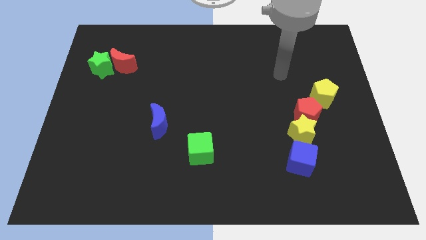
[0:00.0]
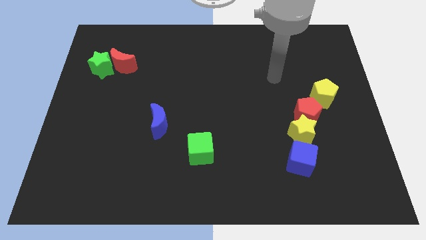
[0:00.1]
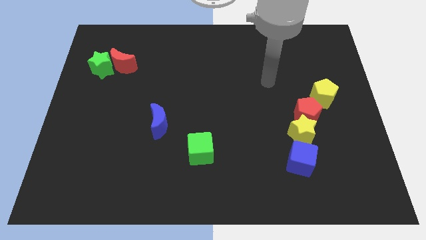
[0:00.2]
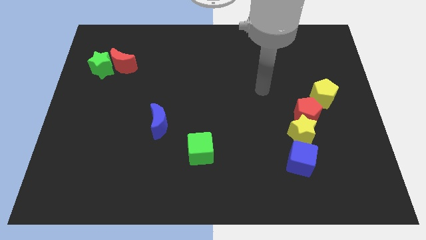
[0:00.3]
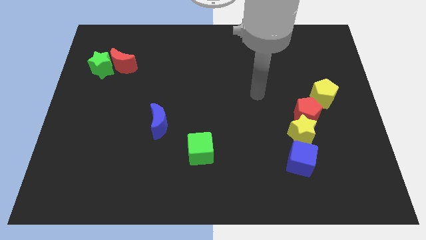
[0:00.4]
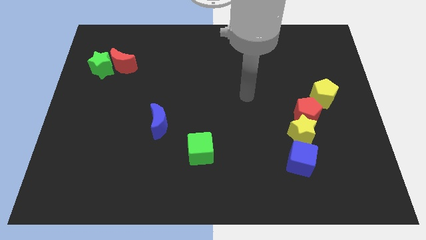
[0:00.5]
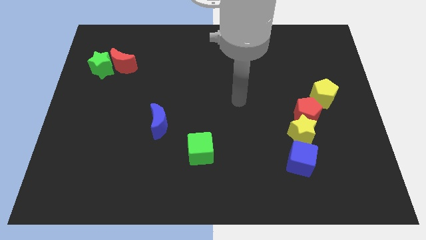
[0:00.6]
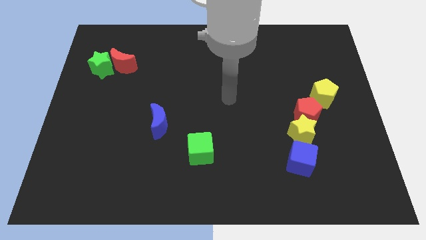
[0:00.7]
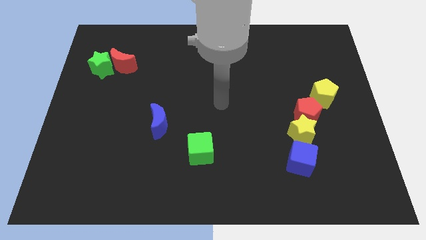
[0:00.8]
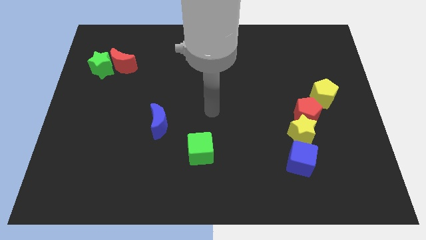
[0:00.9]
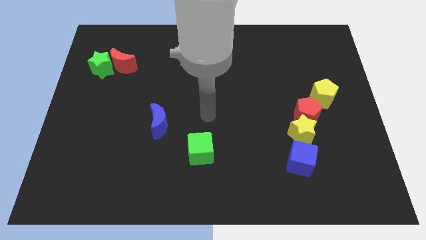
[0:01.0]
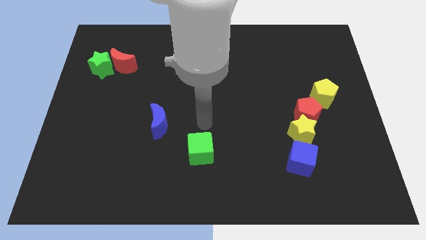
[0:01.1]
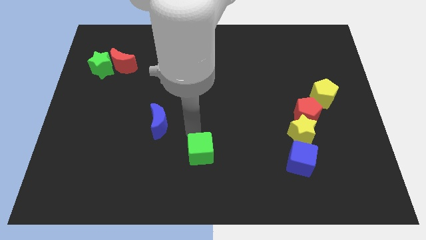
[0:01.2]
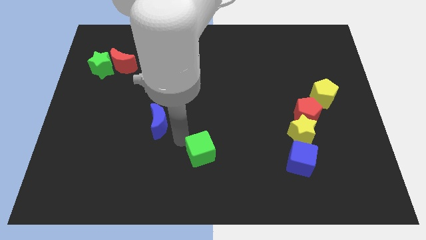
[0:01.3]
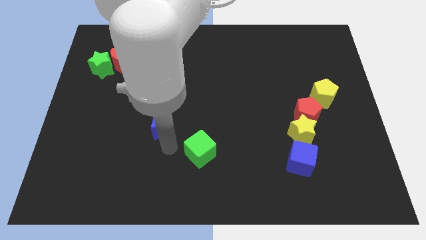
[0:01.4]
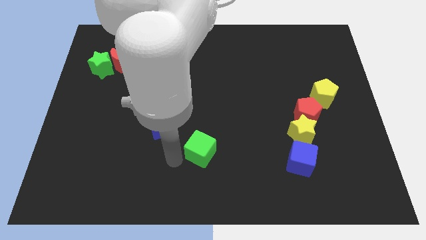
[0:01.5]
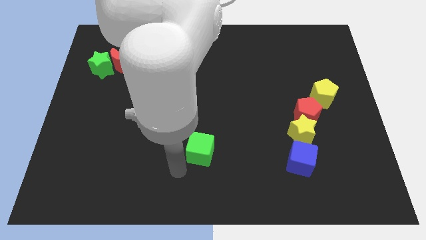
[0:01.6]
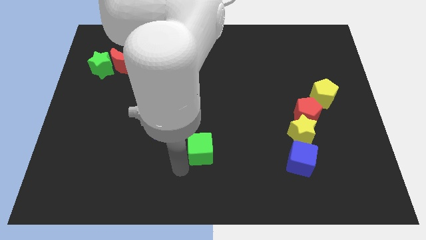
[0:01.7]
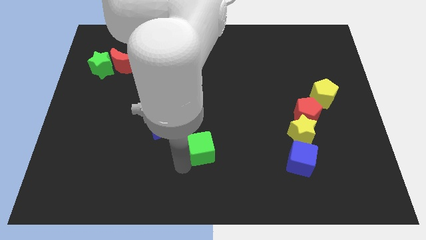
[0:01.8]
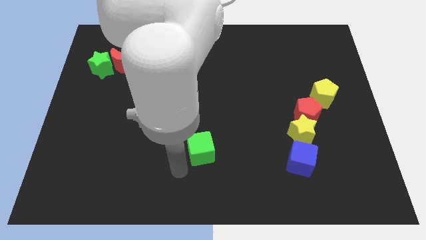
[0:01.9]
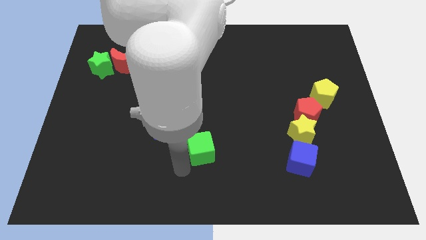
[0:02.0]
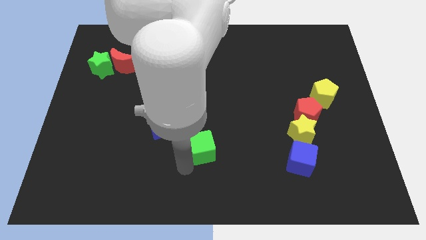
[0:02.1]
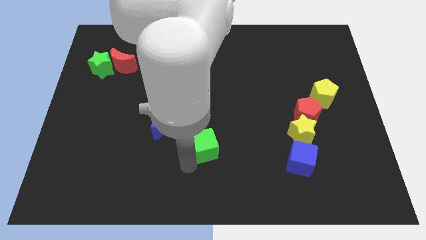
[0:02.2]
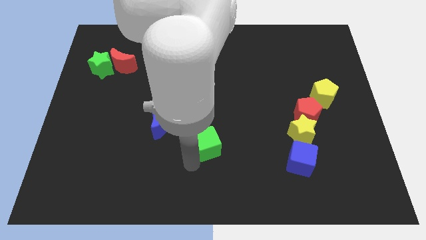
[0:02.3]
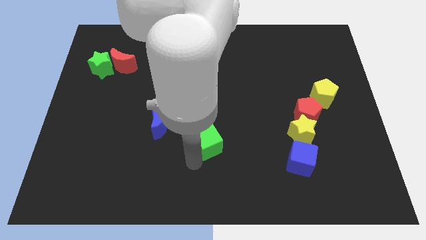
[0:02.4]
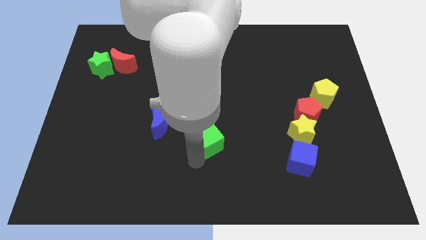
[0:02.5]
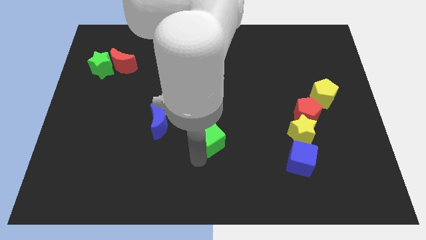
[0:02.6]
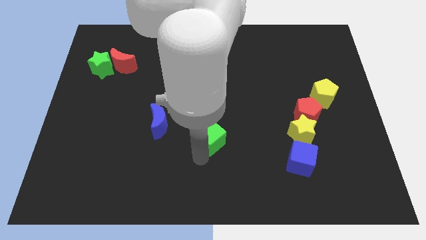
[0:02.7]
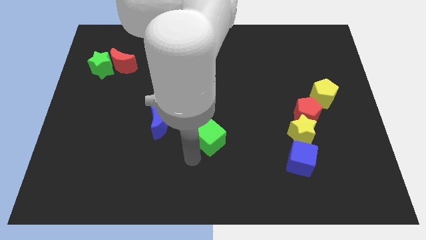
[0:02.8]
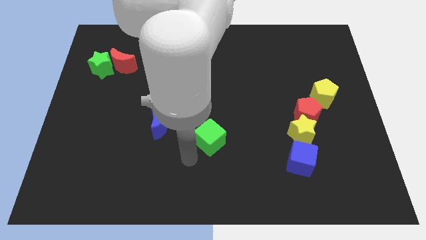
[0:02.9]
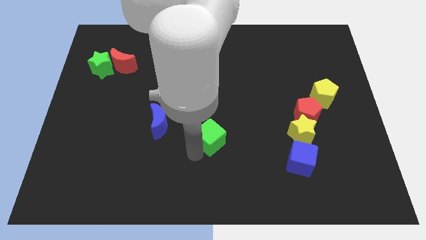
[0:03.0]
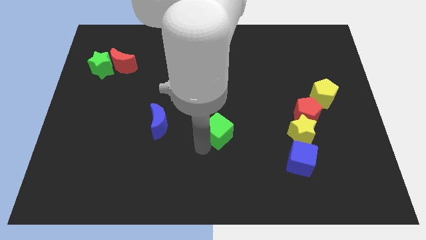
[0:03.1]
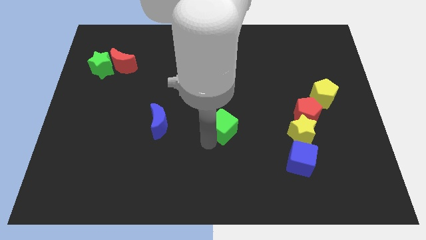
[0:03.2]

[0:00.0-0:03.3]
slightly push the green cube upwards and right diagonally

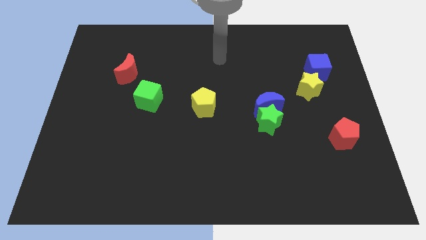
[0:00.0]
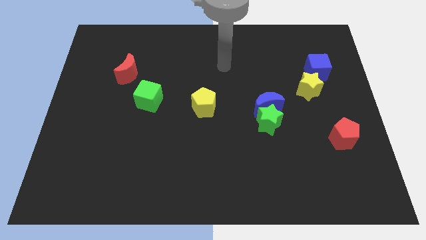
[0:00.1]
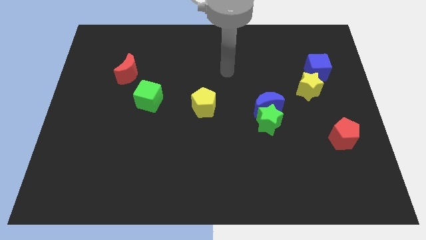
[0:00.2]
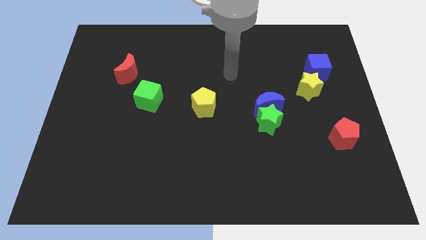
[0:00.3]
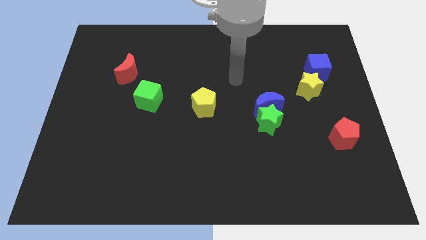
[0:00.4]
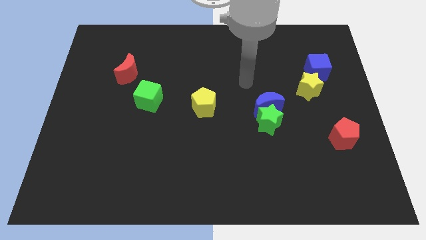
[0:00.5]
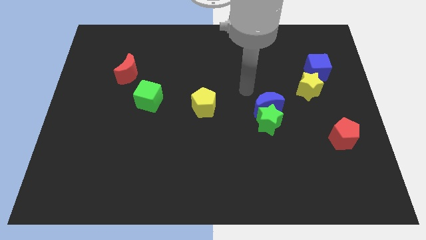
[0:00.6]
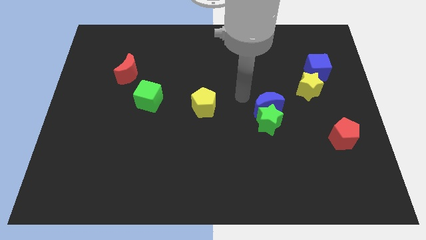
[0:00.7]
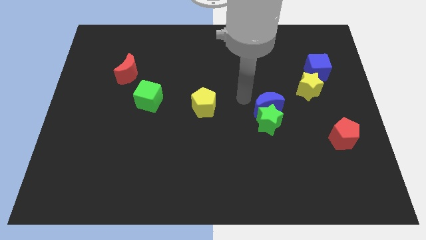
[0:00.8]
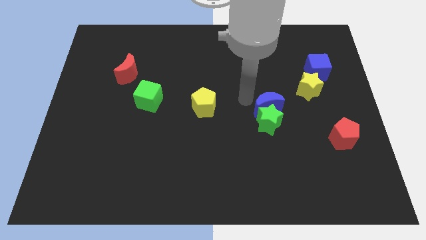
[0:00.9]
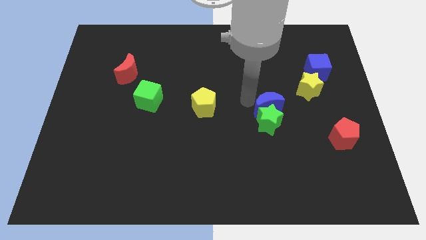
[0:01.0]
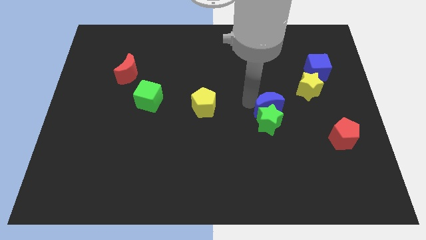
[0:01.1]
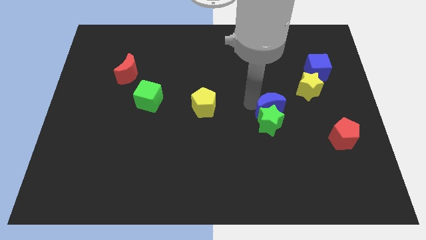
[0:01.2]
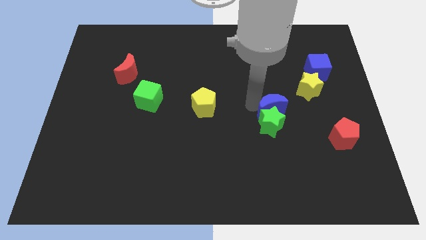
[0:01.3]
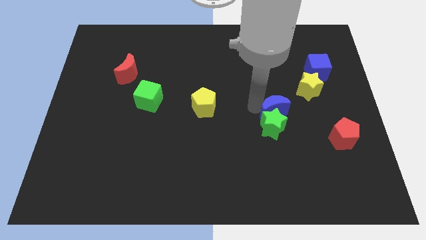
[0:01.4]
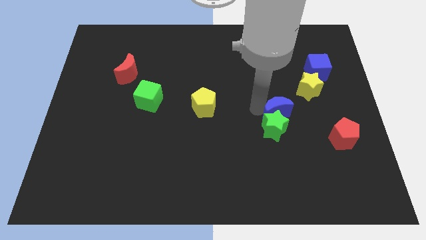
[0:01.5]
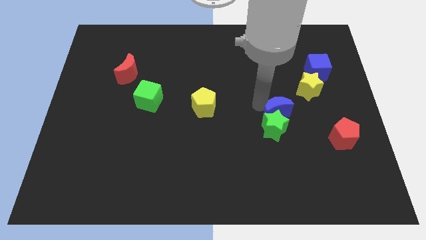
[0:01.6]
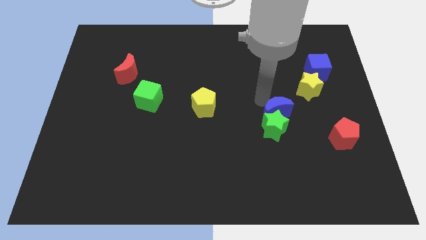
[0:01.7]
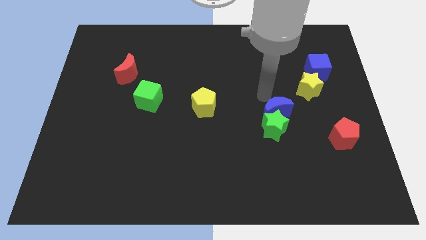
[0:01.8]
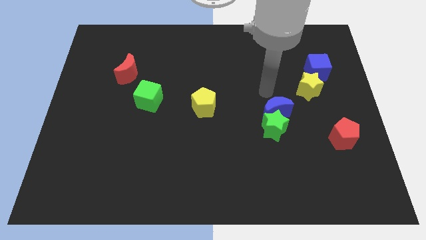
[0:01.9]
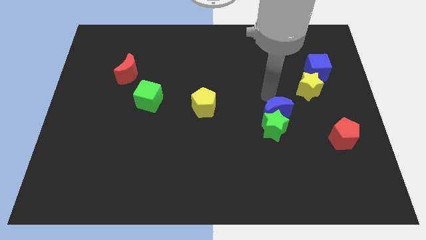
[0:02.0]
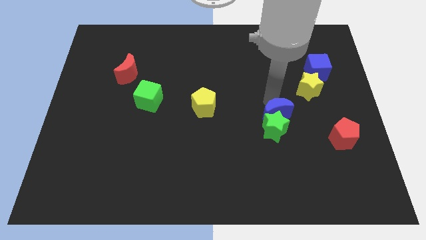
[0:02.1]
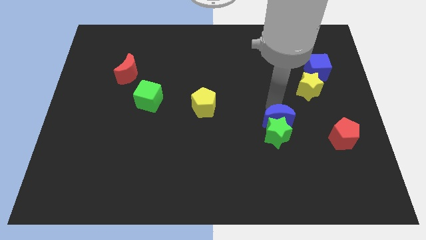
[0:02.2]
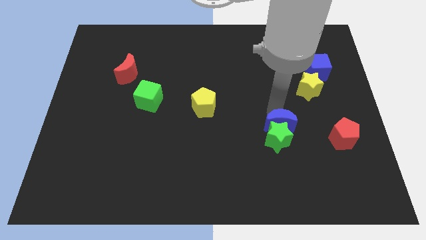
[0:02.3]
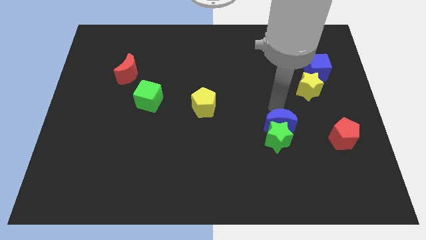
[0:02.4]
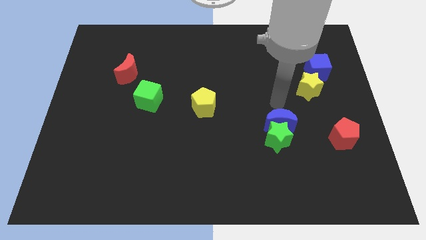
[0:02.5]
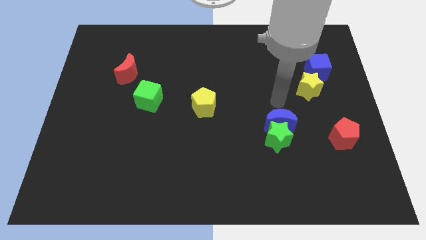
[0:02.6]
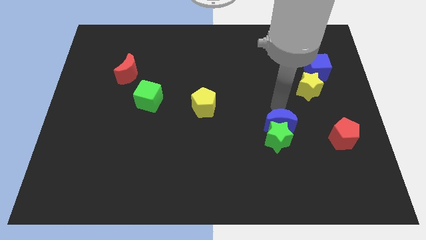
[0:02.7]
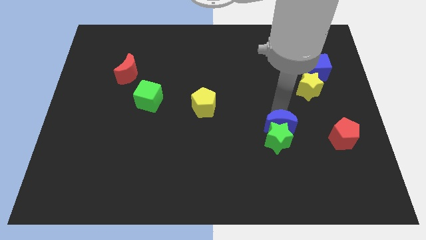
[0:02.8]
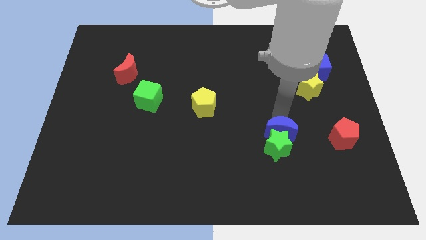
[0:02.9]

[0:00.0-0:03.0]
move the blue moon downwards a little

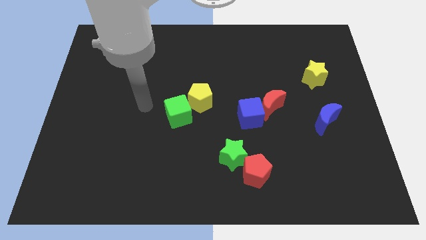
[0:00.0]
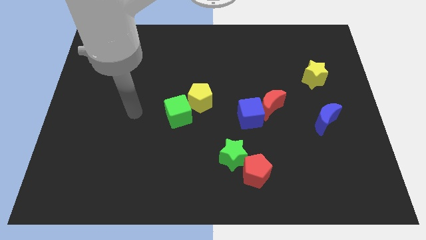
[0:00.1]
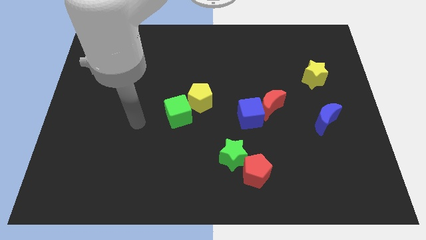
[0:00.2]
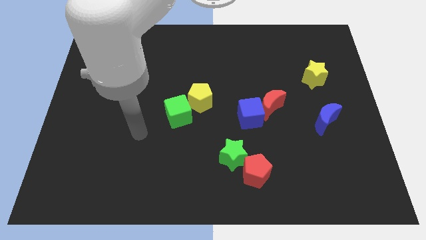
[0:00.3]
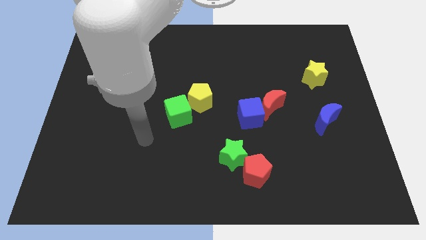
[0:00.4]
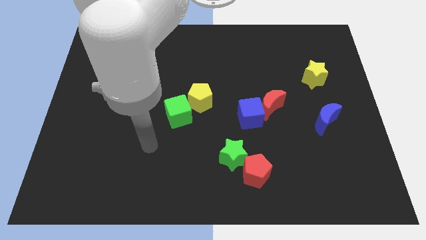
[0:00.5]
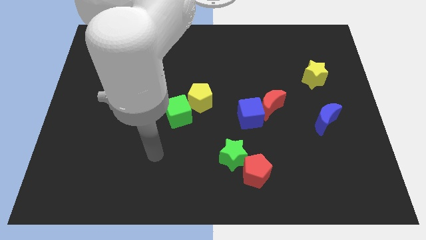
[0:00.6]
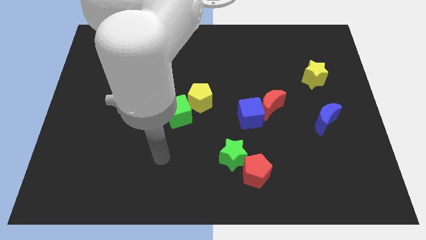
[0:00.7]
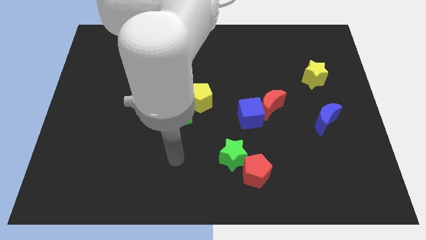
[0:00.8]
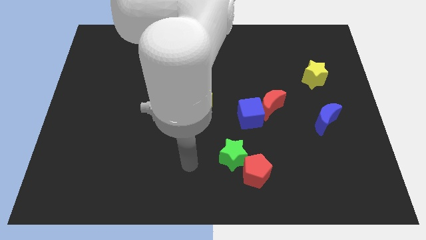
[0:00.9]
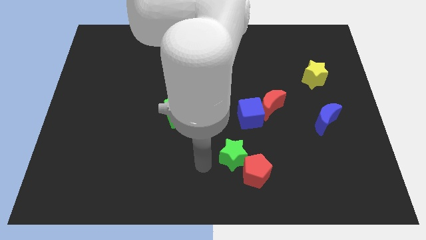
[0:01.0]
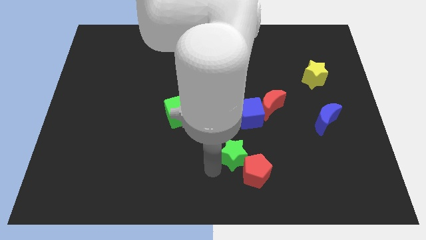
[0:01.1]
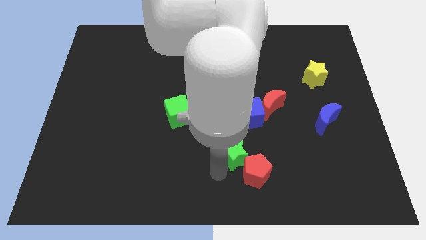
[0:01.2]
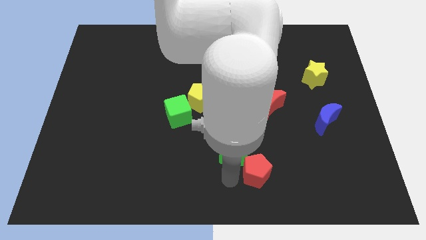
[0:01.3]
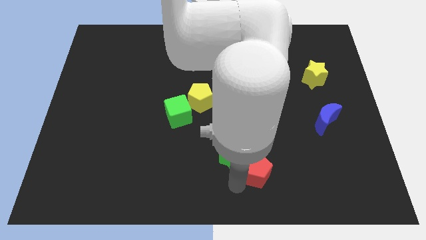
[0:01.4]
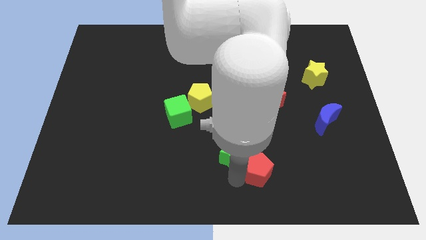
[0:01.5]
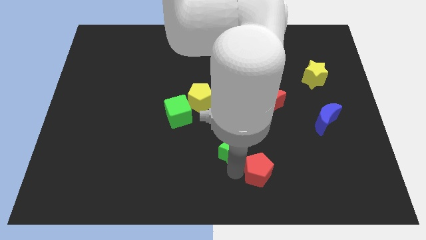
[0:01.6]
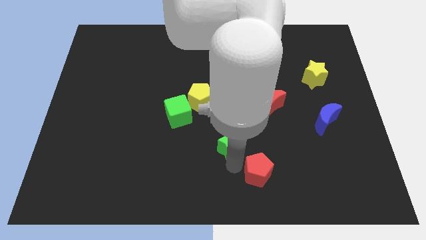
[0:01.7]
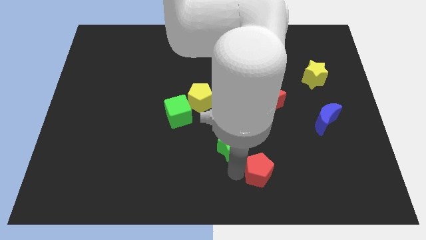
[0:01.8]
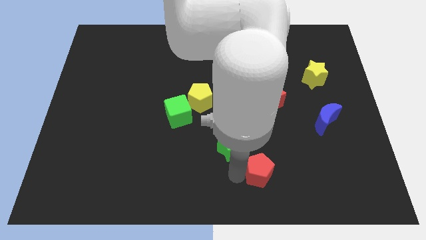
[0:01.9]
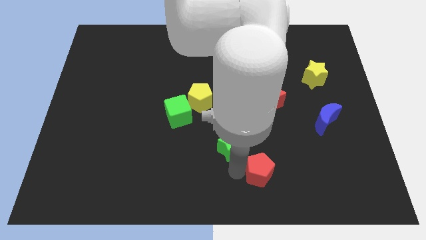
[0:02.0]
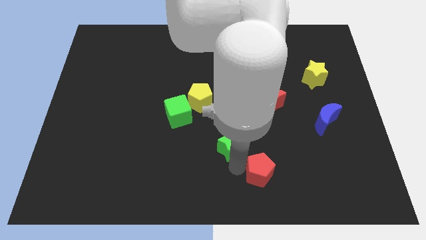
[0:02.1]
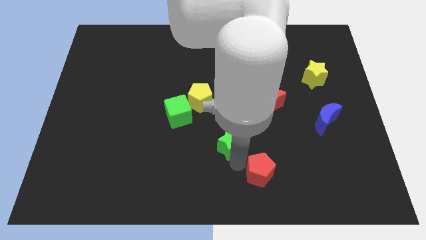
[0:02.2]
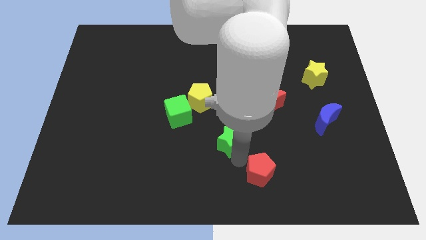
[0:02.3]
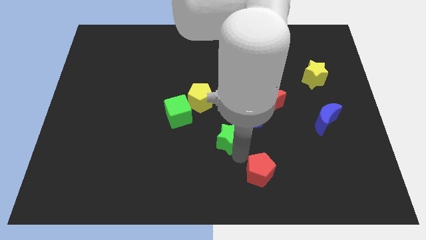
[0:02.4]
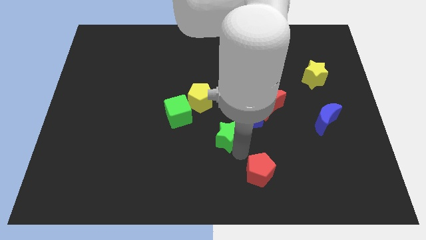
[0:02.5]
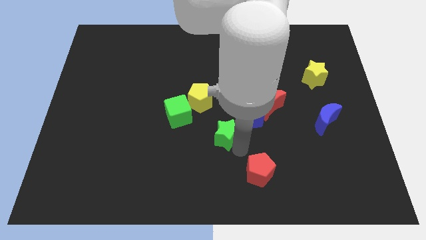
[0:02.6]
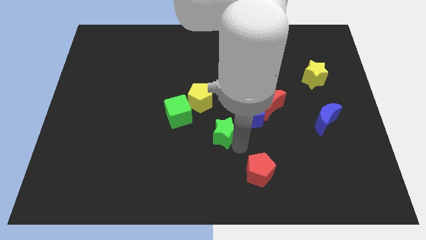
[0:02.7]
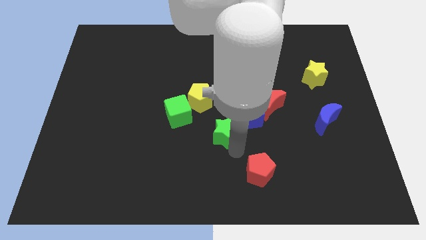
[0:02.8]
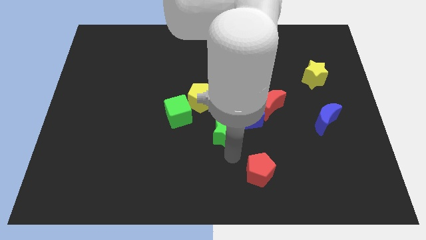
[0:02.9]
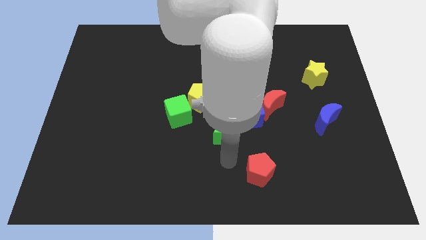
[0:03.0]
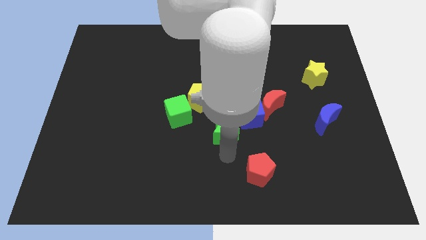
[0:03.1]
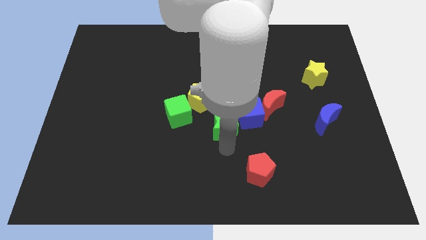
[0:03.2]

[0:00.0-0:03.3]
push the green star upwards a little
